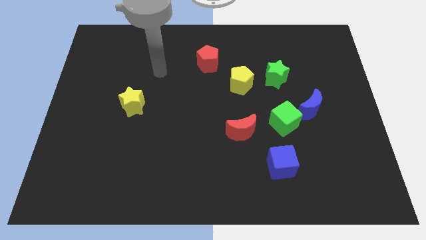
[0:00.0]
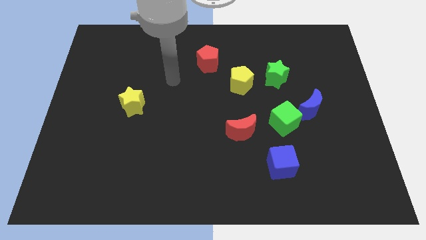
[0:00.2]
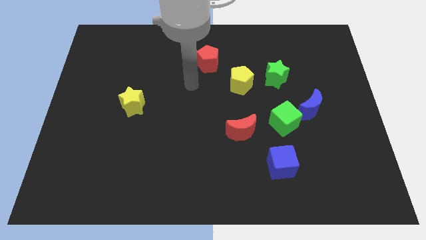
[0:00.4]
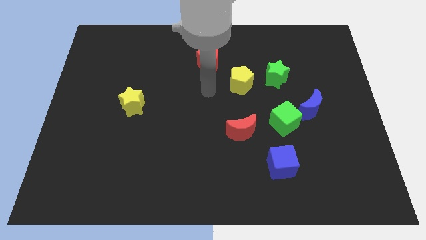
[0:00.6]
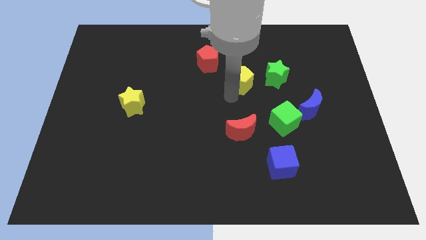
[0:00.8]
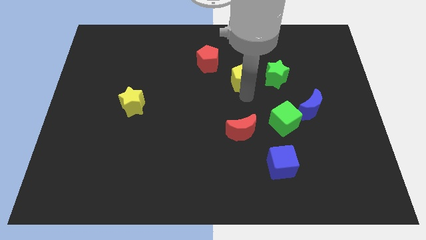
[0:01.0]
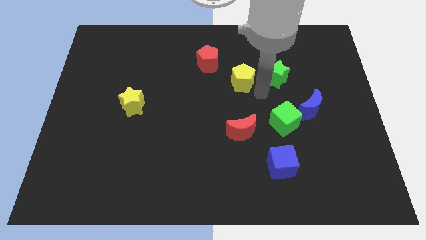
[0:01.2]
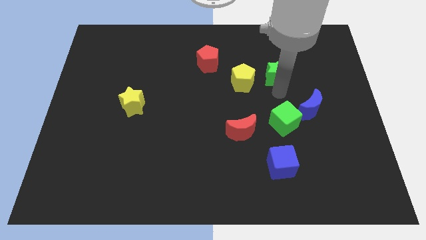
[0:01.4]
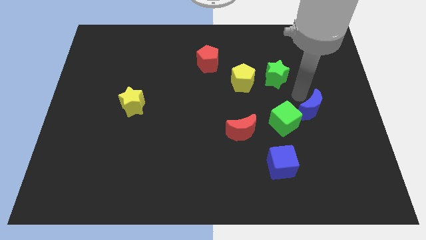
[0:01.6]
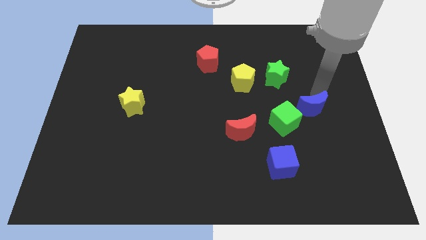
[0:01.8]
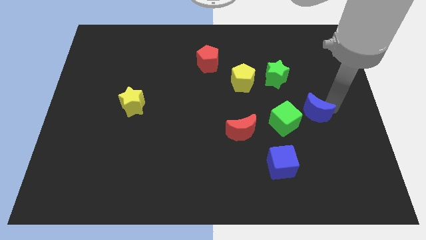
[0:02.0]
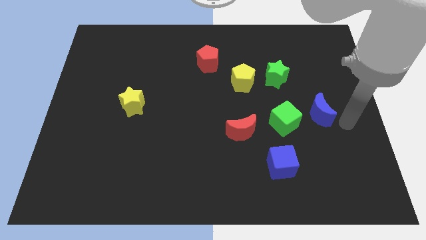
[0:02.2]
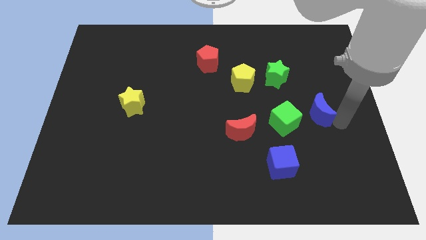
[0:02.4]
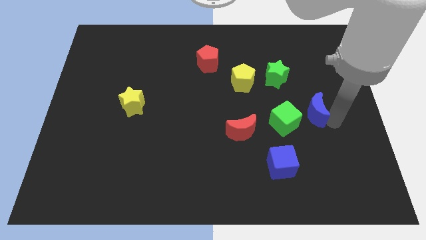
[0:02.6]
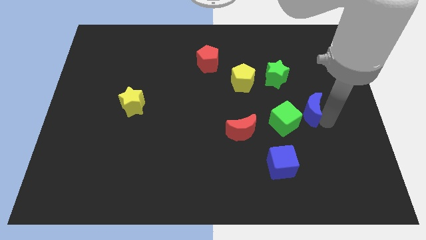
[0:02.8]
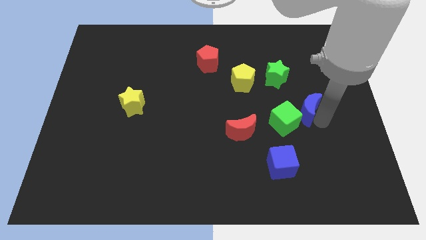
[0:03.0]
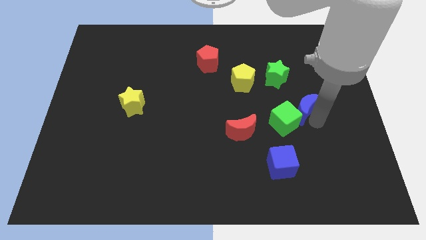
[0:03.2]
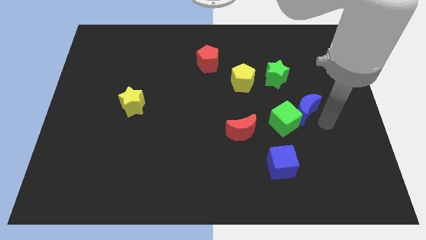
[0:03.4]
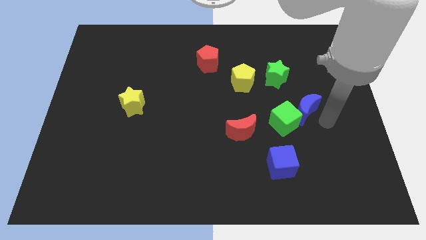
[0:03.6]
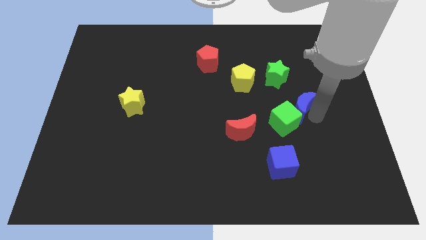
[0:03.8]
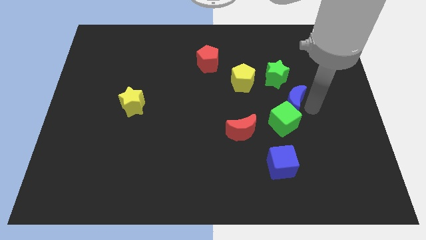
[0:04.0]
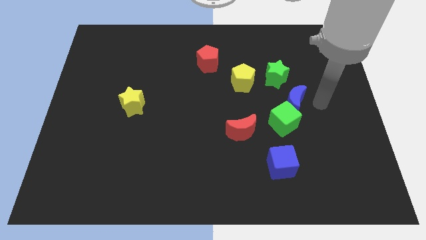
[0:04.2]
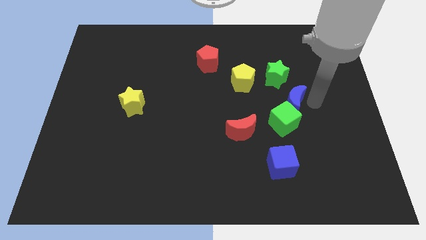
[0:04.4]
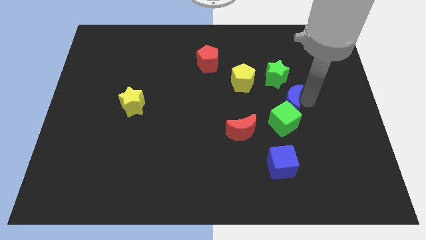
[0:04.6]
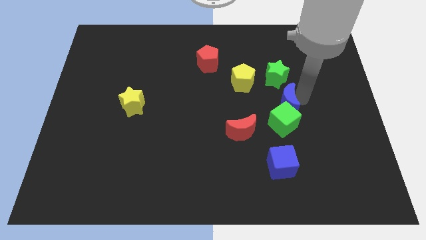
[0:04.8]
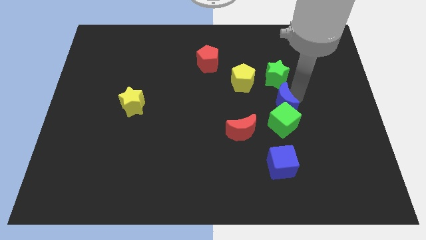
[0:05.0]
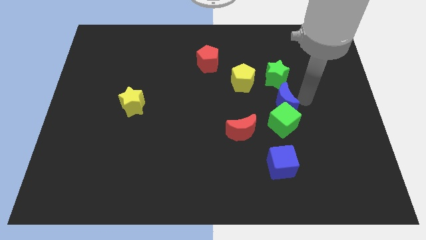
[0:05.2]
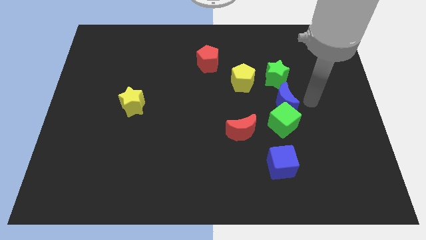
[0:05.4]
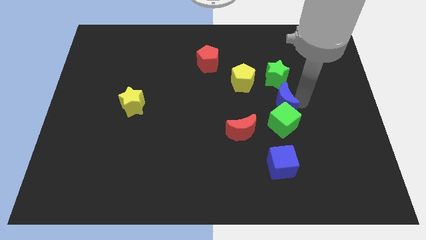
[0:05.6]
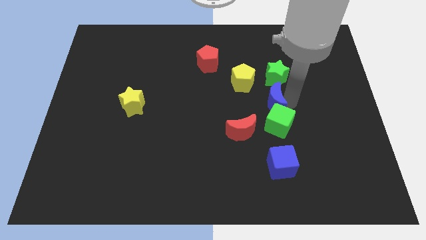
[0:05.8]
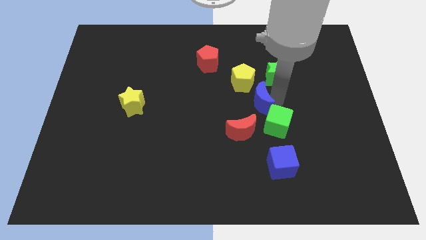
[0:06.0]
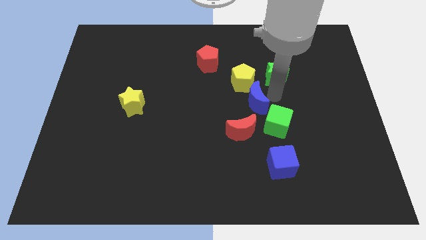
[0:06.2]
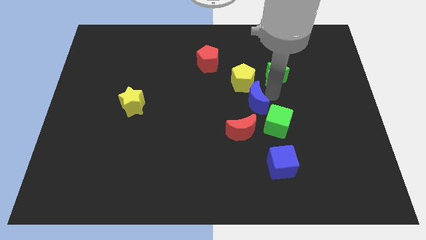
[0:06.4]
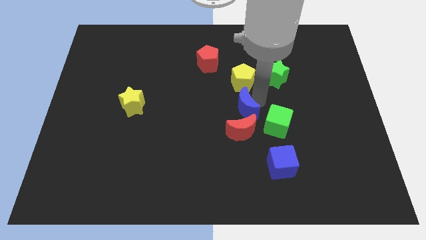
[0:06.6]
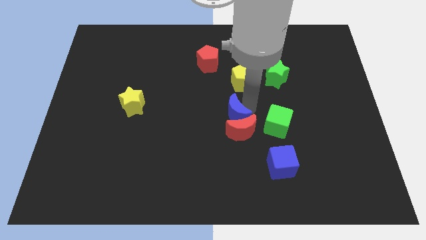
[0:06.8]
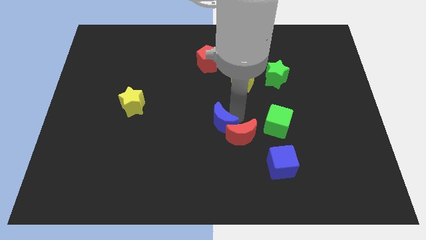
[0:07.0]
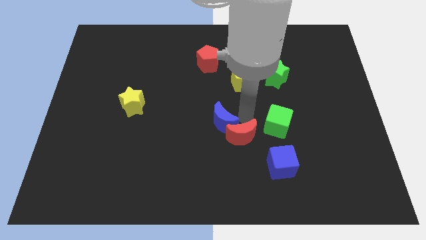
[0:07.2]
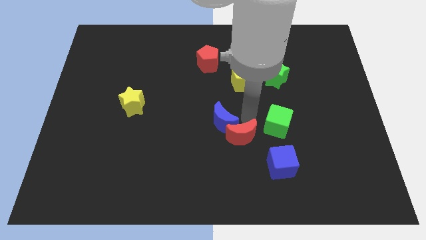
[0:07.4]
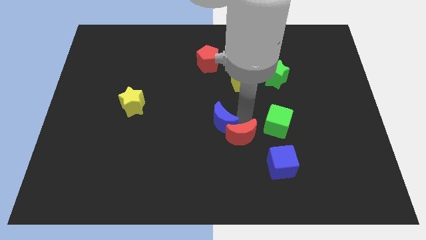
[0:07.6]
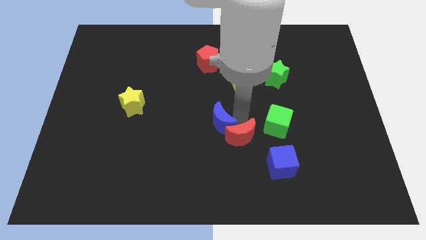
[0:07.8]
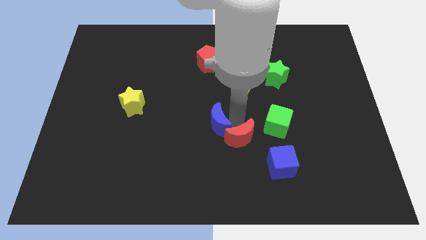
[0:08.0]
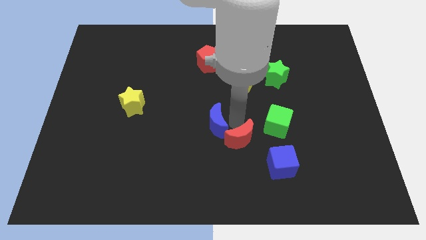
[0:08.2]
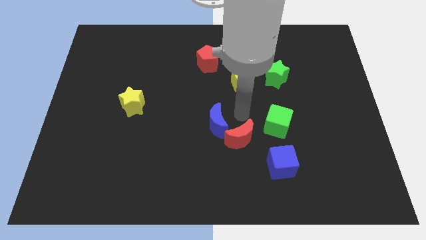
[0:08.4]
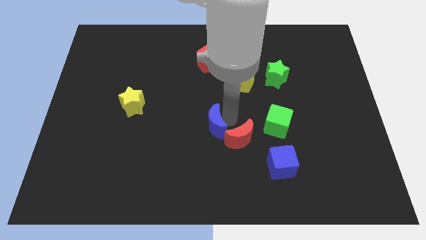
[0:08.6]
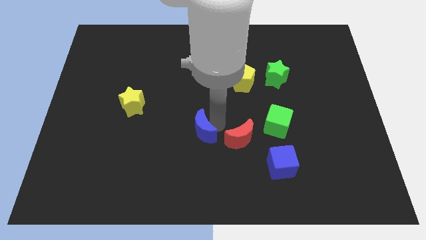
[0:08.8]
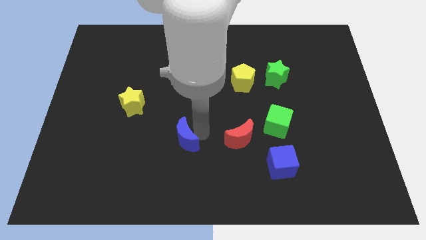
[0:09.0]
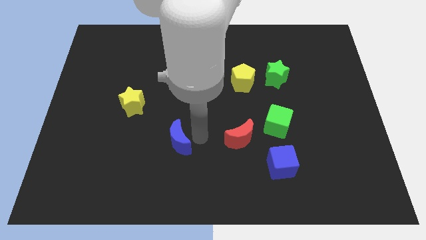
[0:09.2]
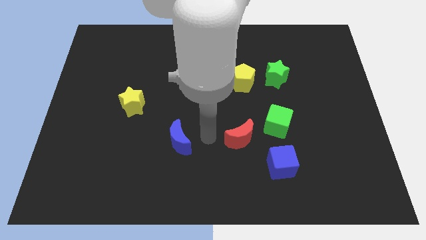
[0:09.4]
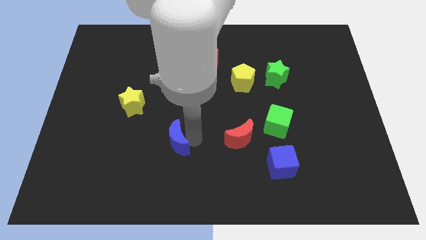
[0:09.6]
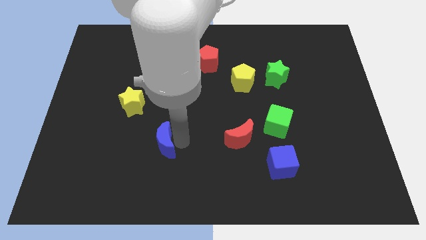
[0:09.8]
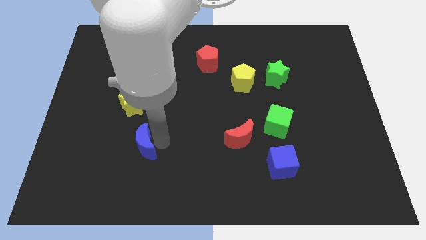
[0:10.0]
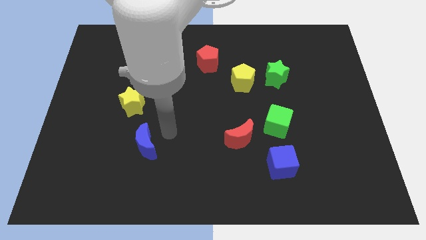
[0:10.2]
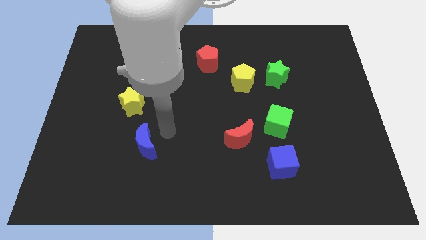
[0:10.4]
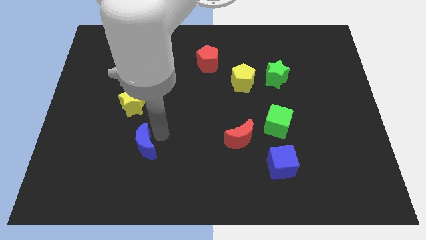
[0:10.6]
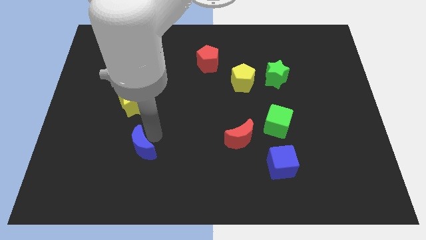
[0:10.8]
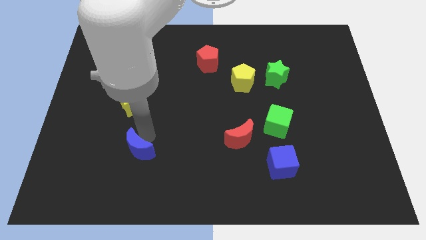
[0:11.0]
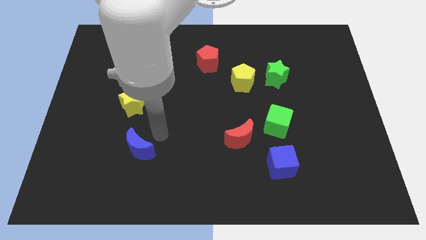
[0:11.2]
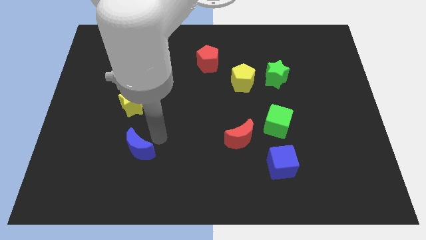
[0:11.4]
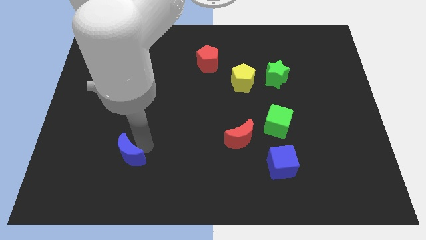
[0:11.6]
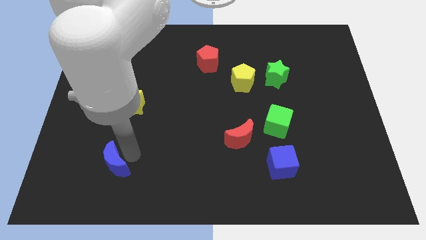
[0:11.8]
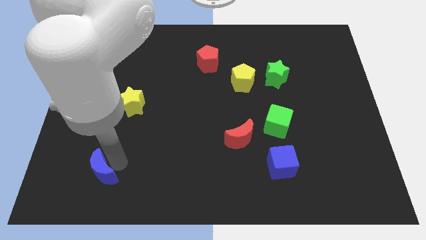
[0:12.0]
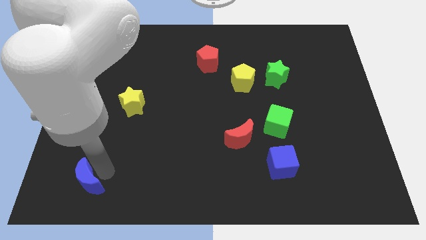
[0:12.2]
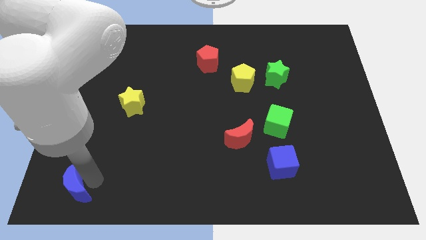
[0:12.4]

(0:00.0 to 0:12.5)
move the blue moon to the bottom left
